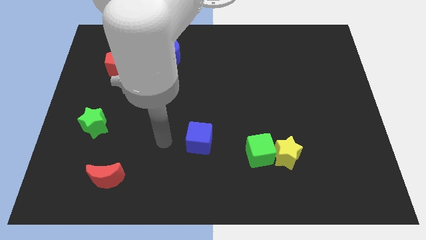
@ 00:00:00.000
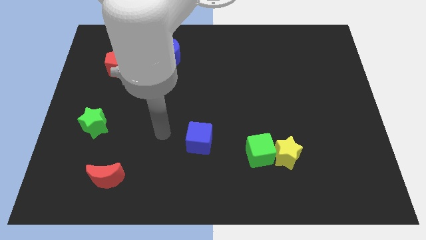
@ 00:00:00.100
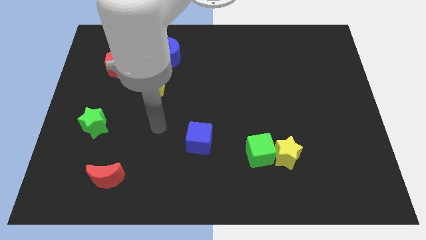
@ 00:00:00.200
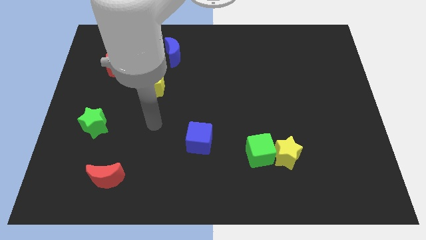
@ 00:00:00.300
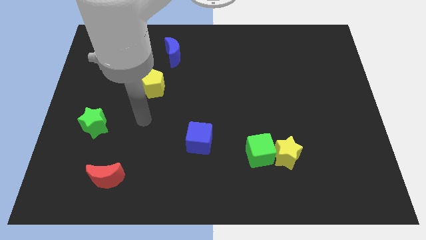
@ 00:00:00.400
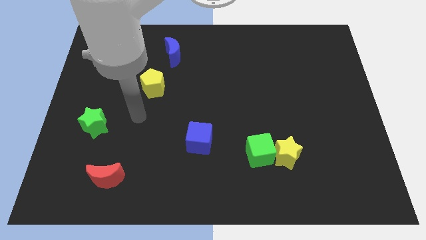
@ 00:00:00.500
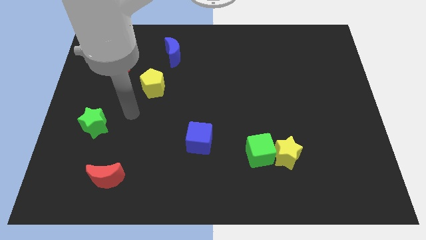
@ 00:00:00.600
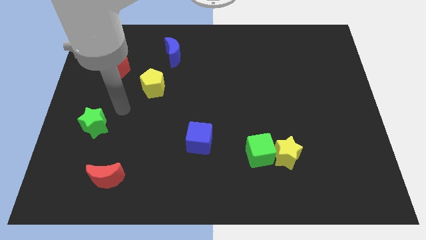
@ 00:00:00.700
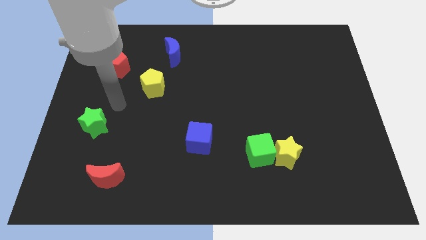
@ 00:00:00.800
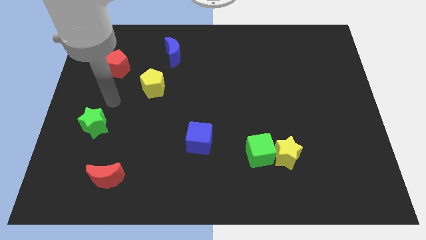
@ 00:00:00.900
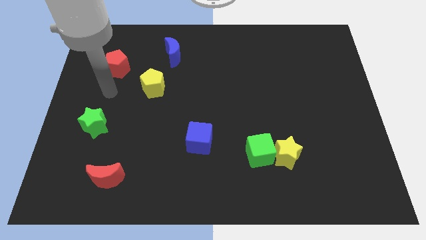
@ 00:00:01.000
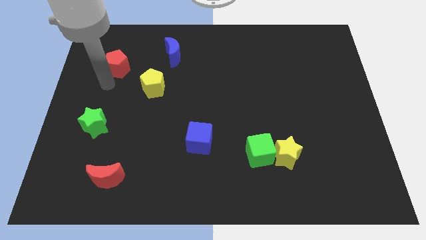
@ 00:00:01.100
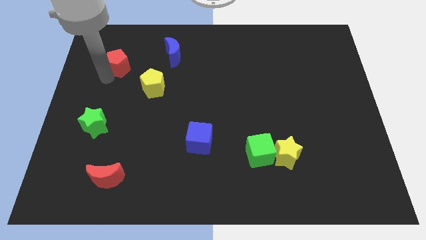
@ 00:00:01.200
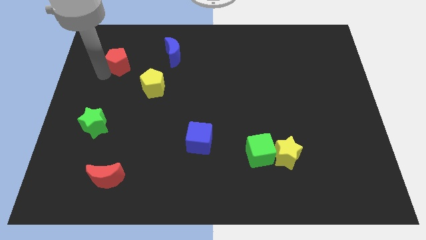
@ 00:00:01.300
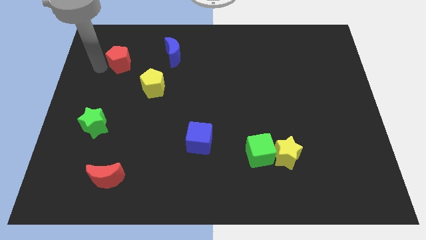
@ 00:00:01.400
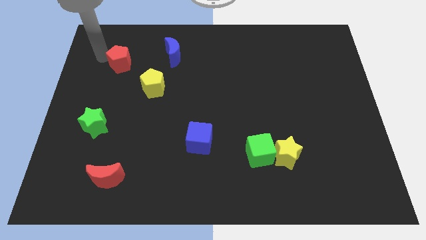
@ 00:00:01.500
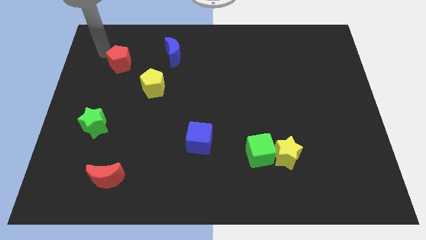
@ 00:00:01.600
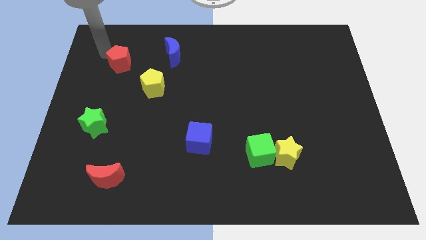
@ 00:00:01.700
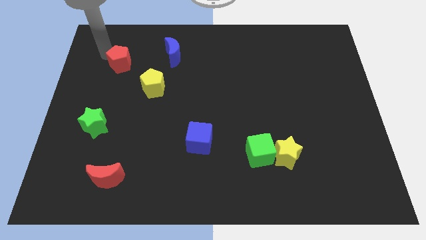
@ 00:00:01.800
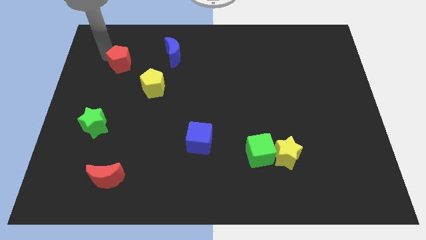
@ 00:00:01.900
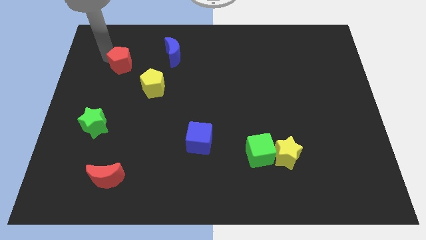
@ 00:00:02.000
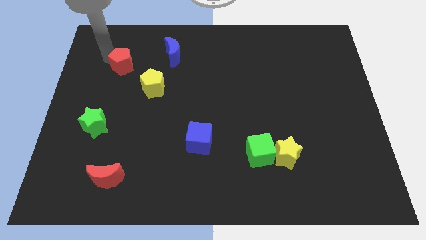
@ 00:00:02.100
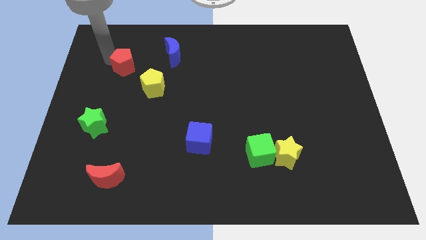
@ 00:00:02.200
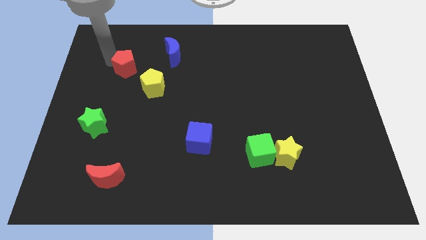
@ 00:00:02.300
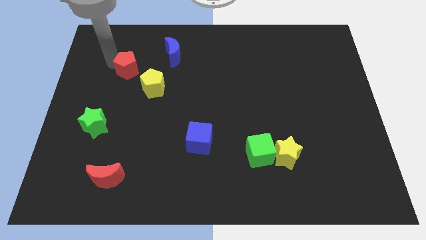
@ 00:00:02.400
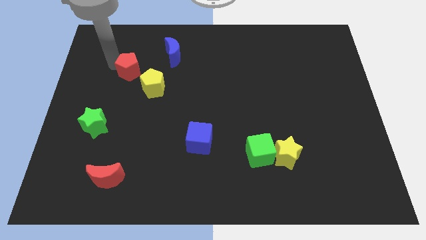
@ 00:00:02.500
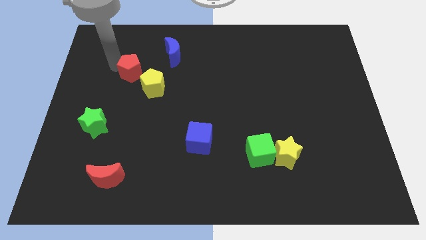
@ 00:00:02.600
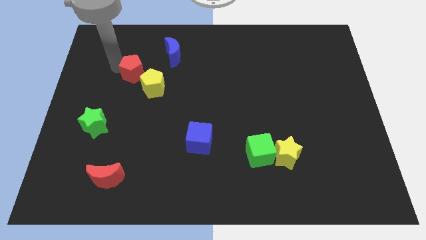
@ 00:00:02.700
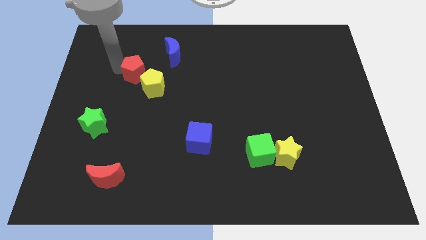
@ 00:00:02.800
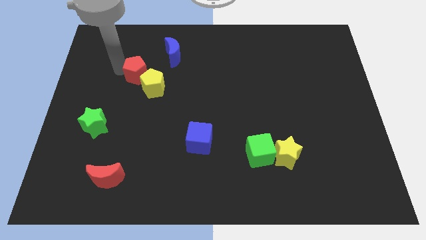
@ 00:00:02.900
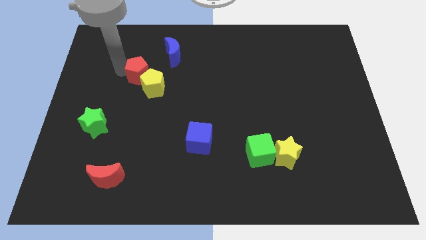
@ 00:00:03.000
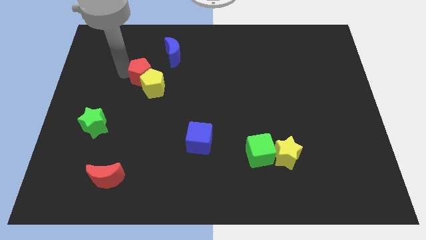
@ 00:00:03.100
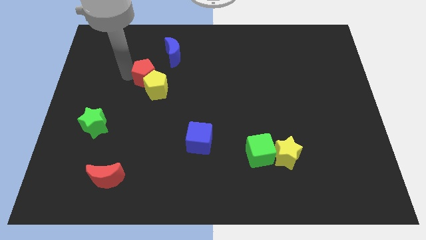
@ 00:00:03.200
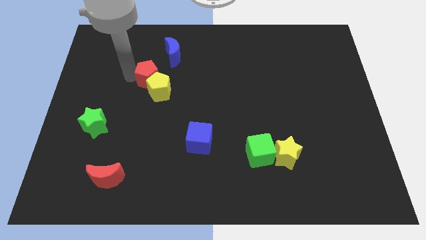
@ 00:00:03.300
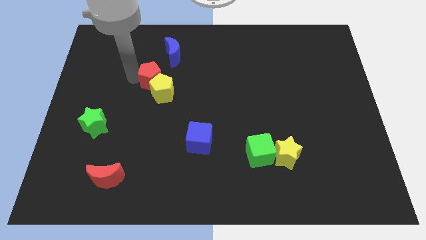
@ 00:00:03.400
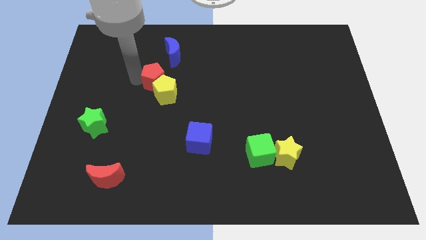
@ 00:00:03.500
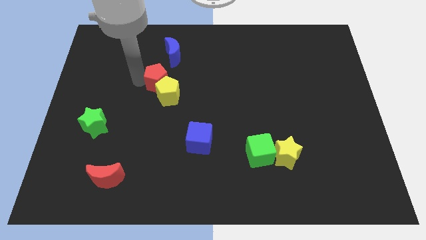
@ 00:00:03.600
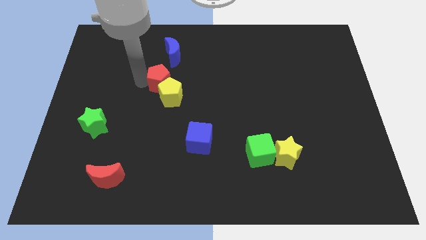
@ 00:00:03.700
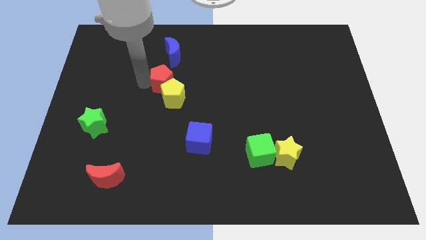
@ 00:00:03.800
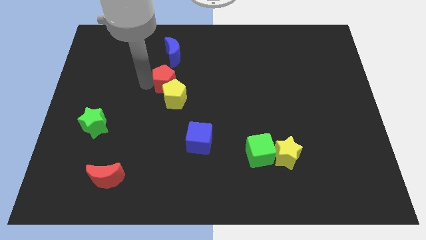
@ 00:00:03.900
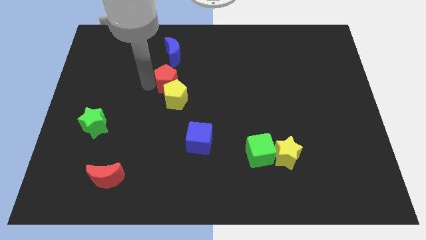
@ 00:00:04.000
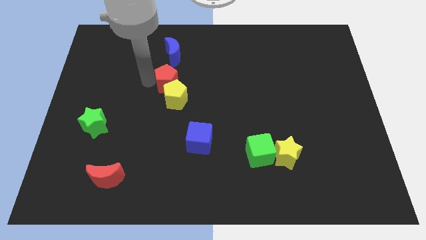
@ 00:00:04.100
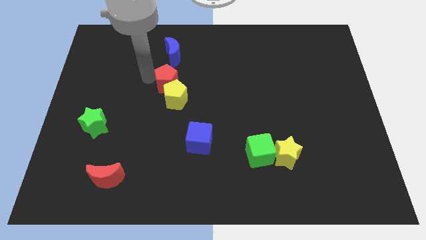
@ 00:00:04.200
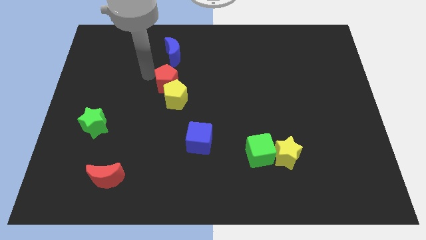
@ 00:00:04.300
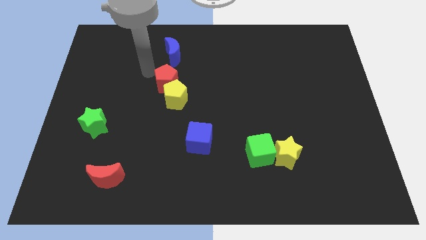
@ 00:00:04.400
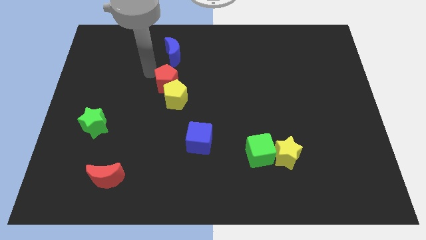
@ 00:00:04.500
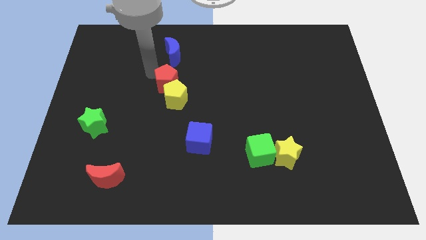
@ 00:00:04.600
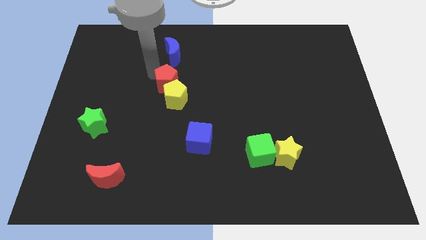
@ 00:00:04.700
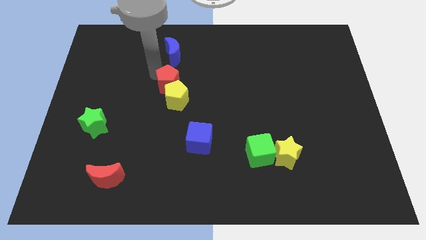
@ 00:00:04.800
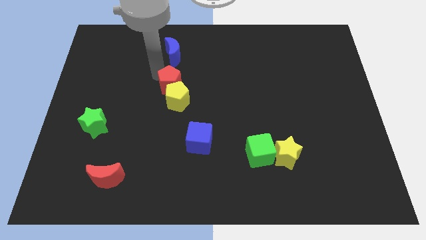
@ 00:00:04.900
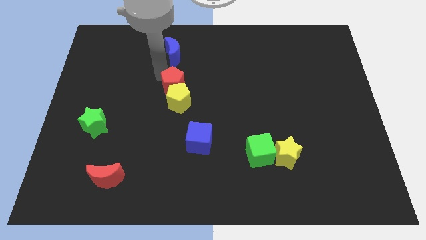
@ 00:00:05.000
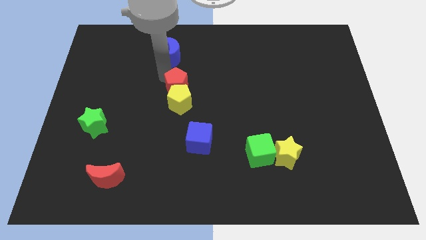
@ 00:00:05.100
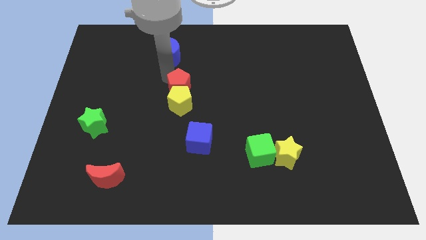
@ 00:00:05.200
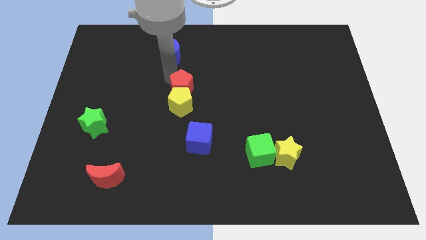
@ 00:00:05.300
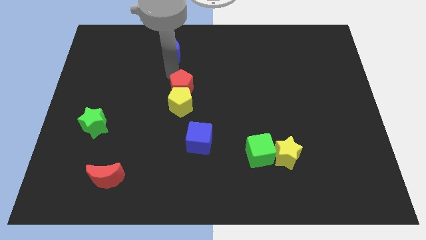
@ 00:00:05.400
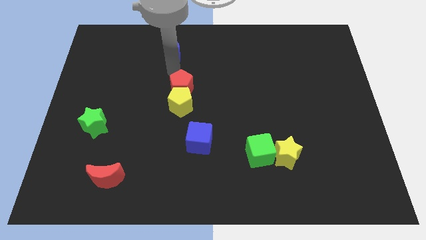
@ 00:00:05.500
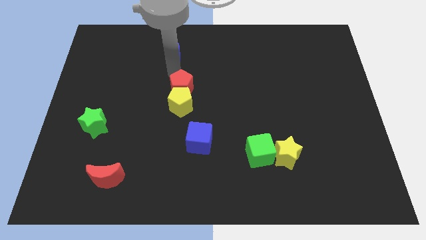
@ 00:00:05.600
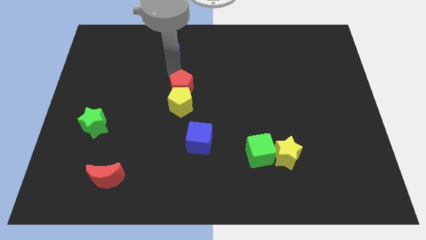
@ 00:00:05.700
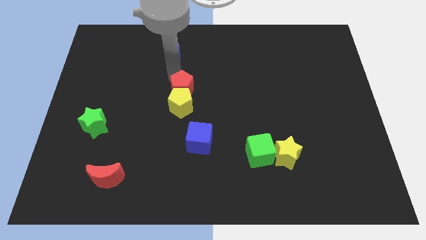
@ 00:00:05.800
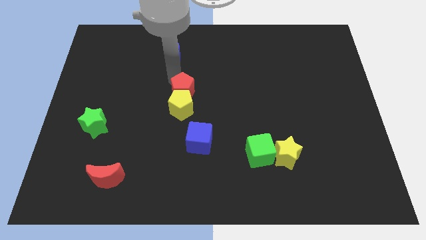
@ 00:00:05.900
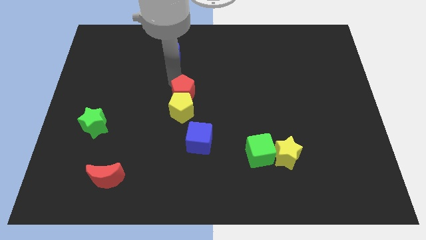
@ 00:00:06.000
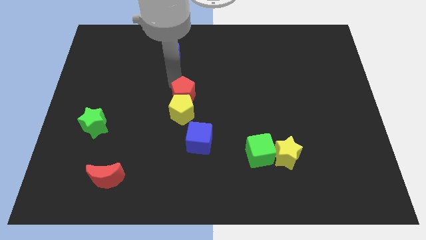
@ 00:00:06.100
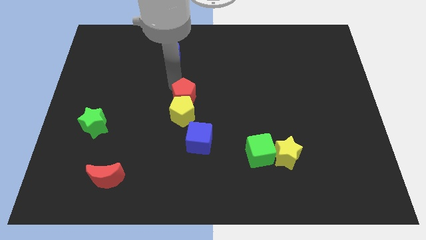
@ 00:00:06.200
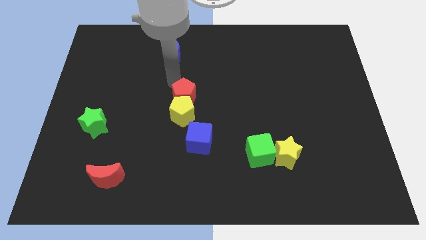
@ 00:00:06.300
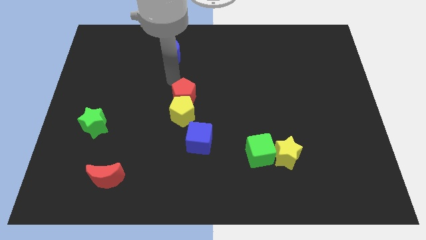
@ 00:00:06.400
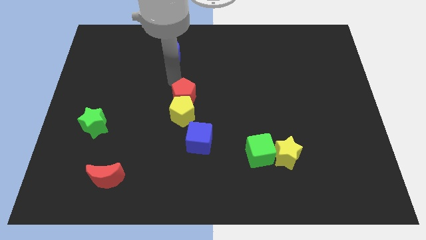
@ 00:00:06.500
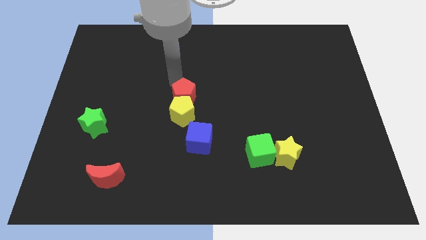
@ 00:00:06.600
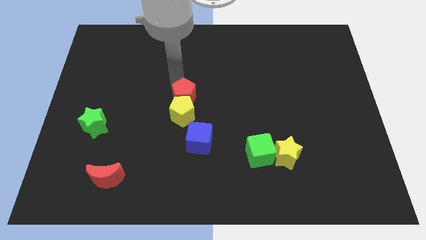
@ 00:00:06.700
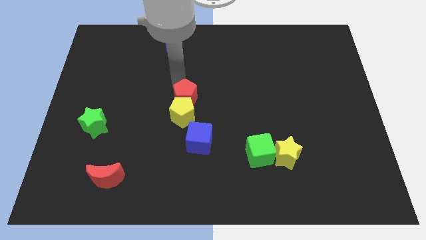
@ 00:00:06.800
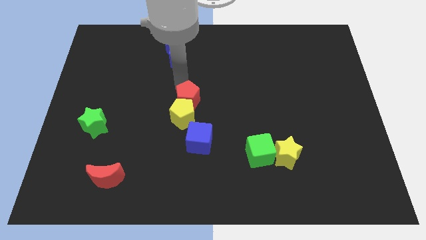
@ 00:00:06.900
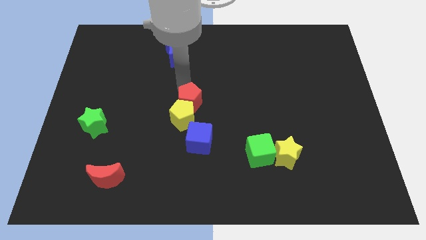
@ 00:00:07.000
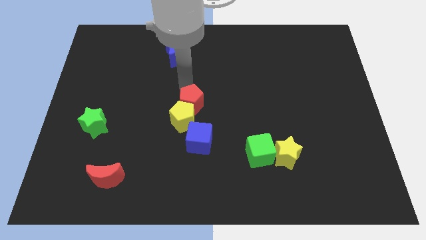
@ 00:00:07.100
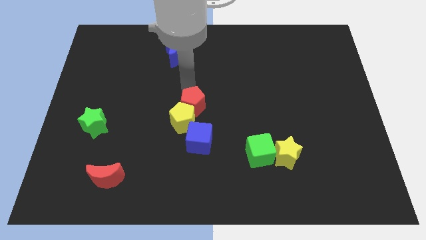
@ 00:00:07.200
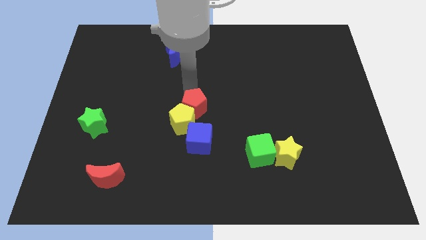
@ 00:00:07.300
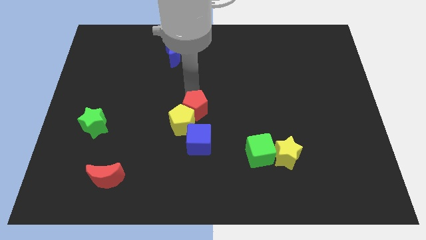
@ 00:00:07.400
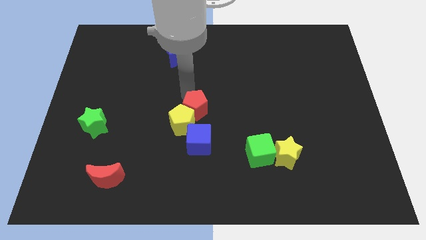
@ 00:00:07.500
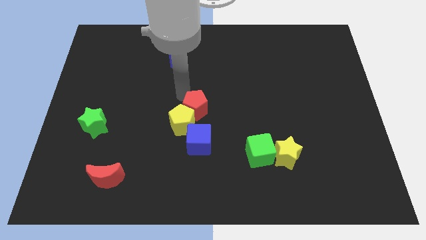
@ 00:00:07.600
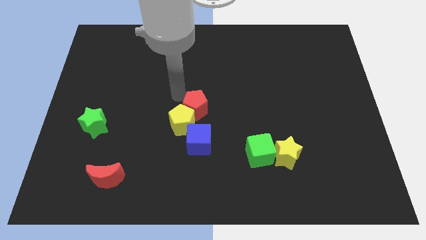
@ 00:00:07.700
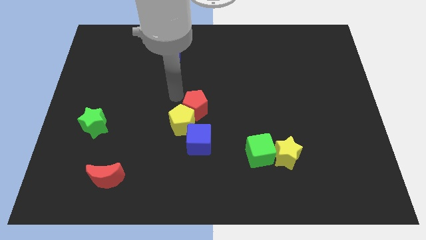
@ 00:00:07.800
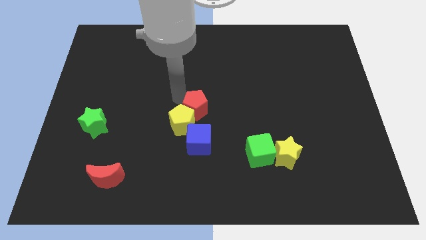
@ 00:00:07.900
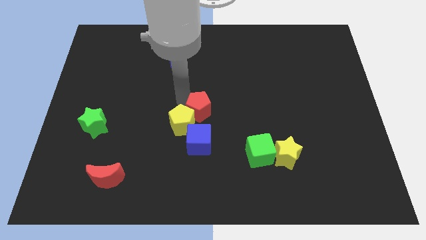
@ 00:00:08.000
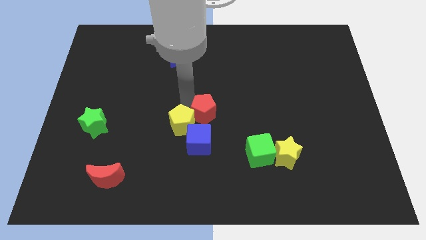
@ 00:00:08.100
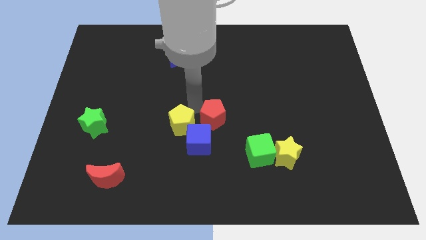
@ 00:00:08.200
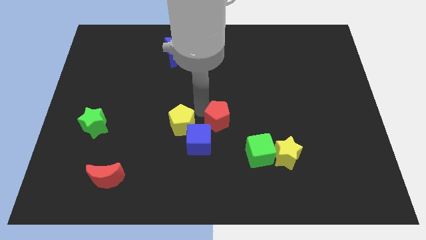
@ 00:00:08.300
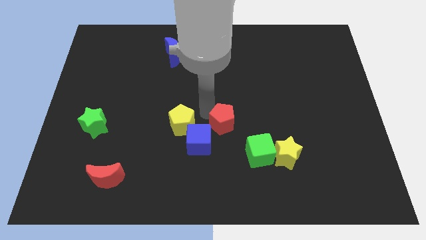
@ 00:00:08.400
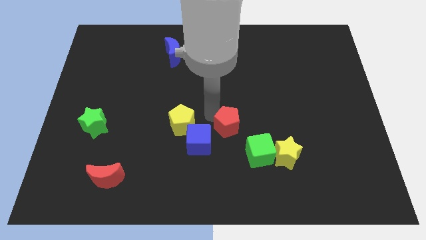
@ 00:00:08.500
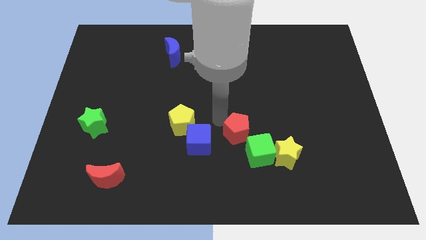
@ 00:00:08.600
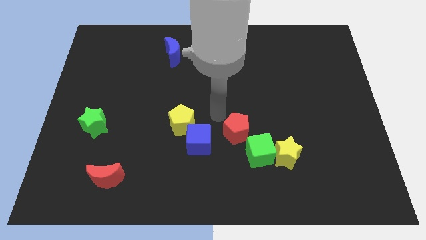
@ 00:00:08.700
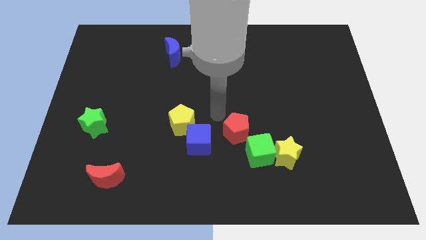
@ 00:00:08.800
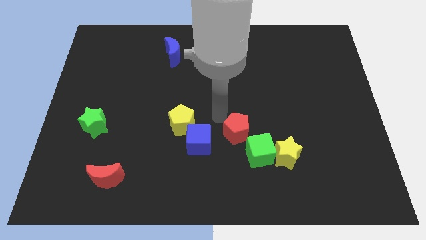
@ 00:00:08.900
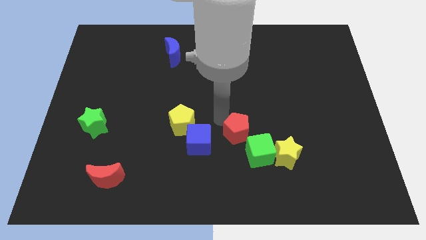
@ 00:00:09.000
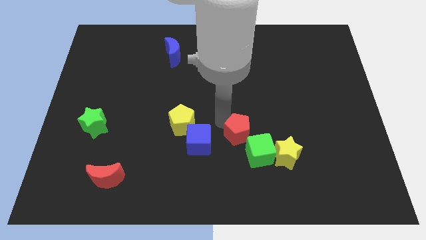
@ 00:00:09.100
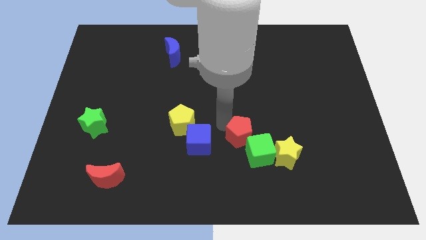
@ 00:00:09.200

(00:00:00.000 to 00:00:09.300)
put the red pentagon to the green cube
